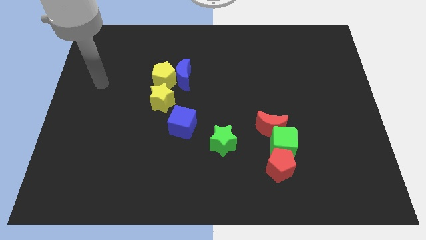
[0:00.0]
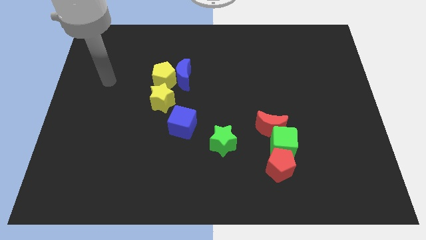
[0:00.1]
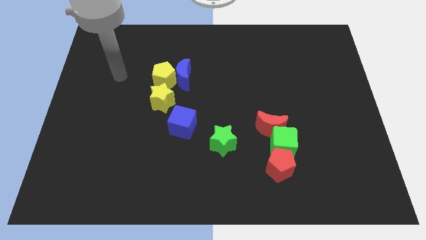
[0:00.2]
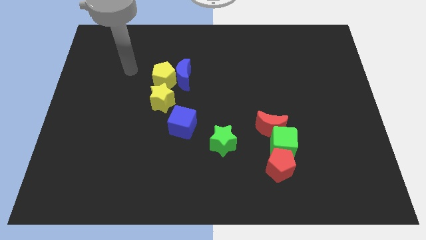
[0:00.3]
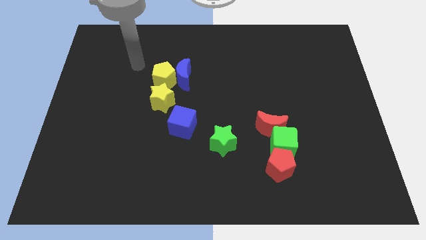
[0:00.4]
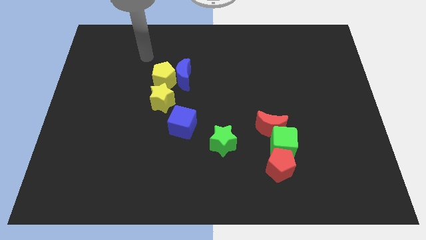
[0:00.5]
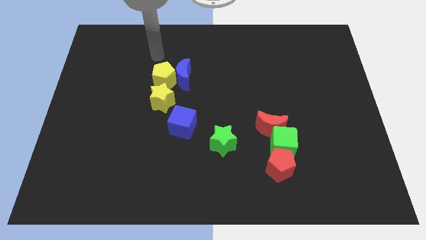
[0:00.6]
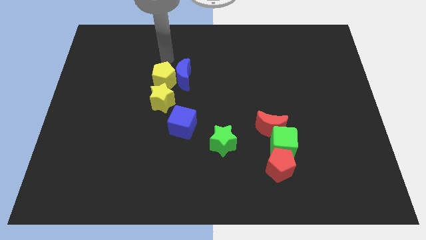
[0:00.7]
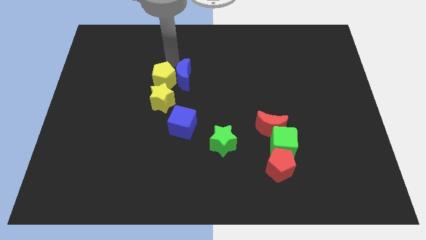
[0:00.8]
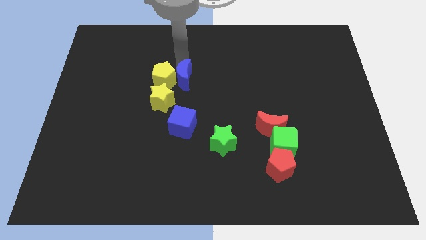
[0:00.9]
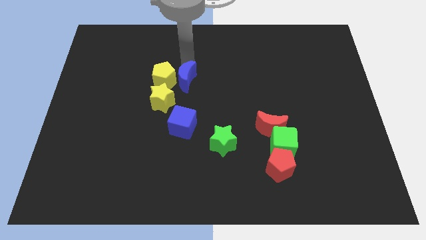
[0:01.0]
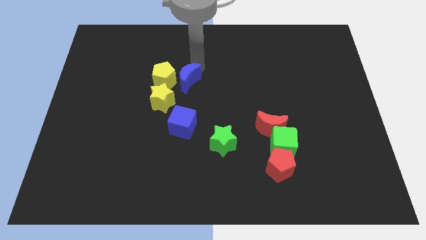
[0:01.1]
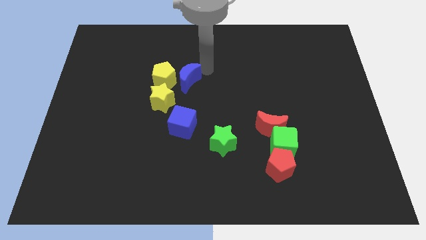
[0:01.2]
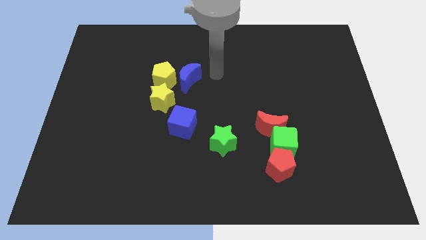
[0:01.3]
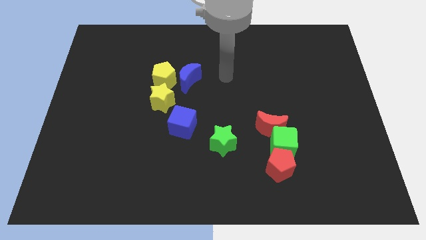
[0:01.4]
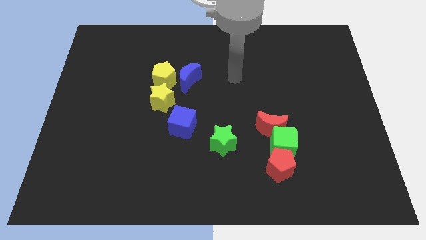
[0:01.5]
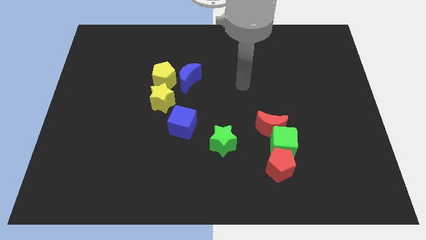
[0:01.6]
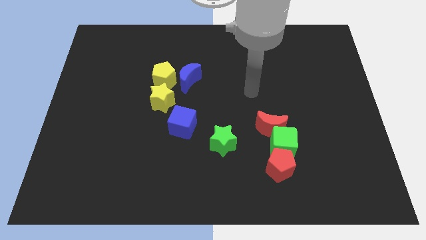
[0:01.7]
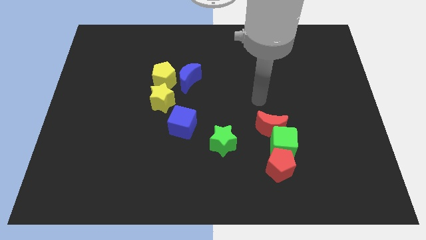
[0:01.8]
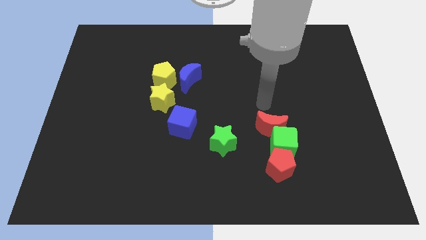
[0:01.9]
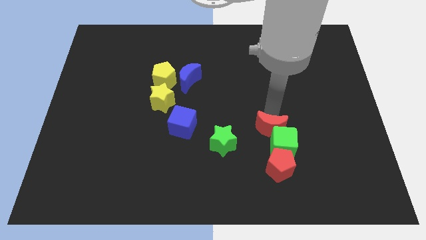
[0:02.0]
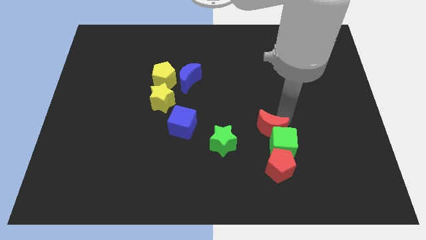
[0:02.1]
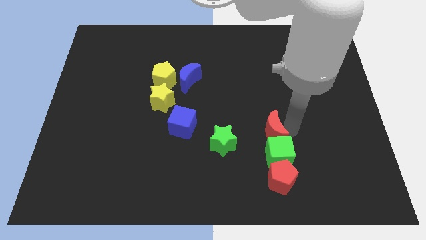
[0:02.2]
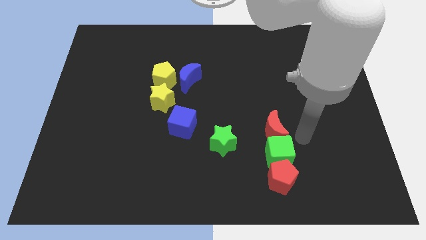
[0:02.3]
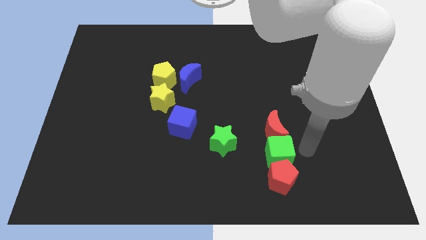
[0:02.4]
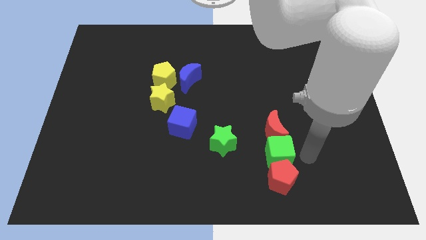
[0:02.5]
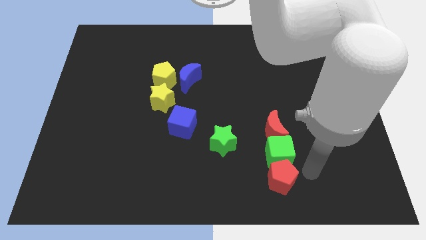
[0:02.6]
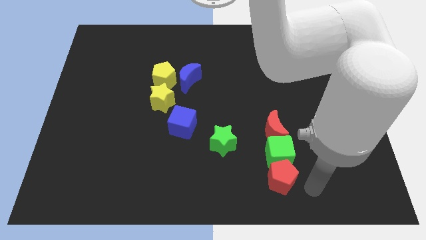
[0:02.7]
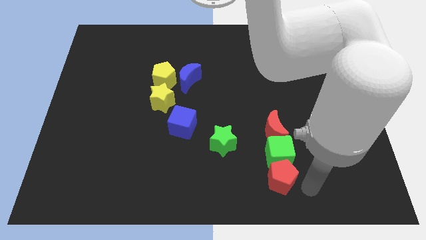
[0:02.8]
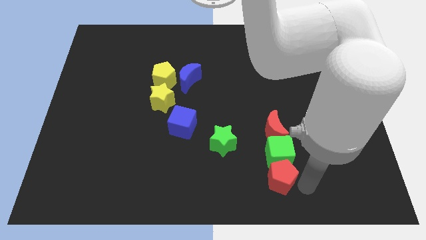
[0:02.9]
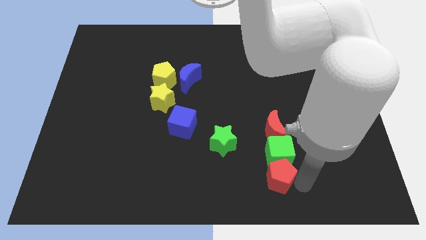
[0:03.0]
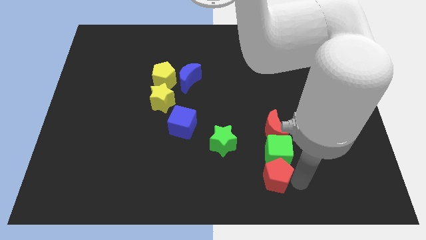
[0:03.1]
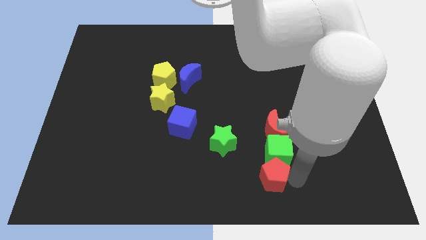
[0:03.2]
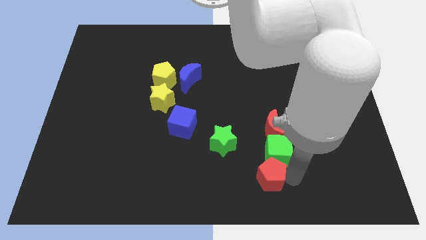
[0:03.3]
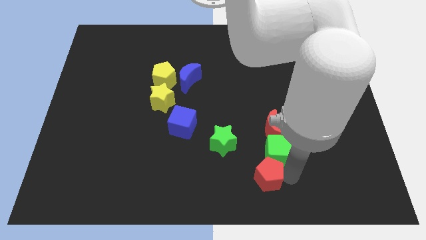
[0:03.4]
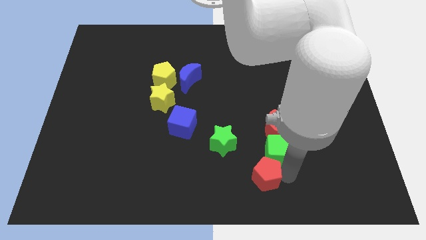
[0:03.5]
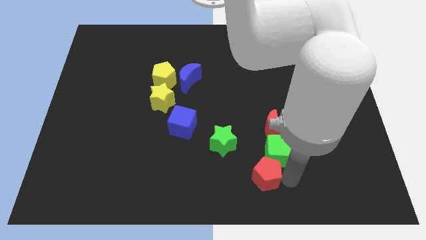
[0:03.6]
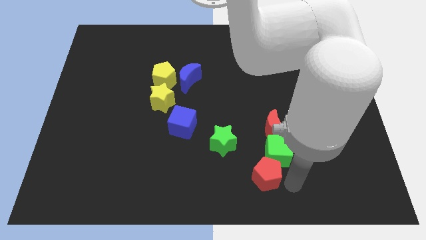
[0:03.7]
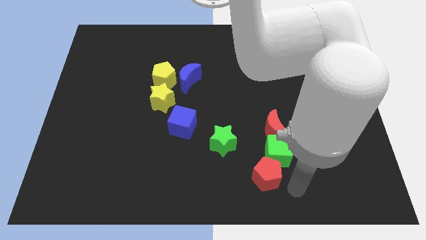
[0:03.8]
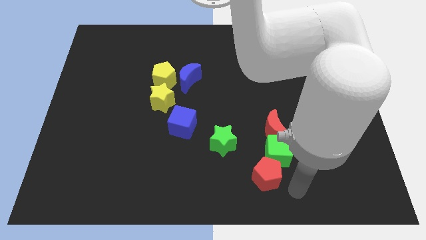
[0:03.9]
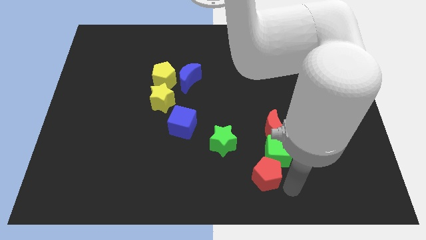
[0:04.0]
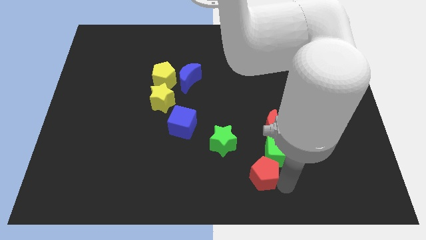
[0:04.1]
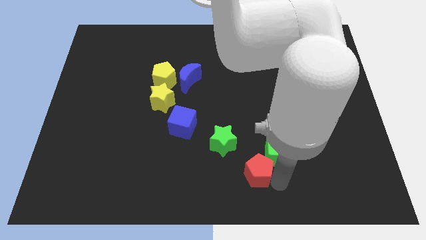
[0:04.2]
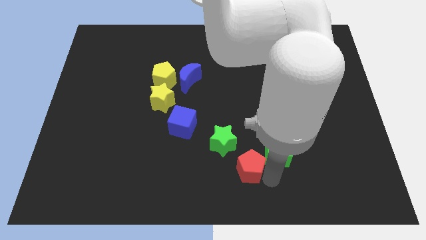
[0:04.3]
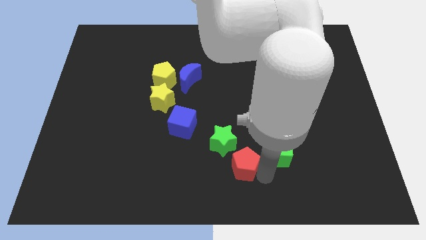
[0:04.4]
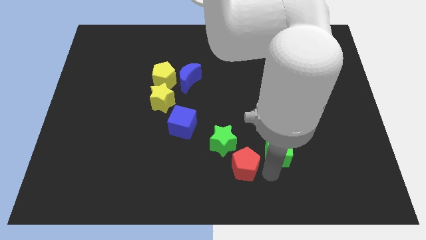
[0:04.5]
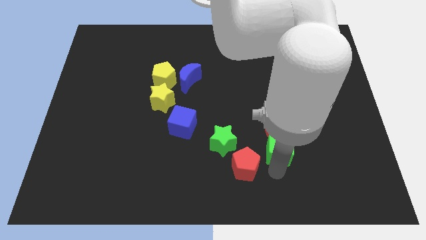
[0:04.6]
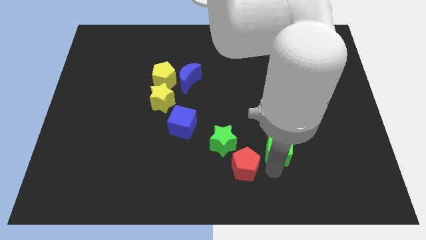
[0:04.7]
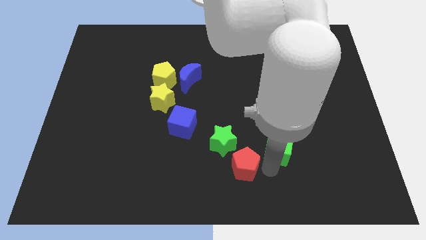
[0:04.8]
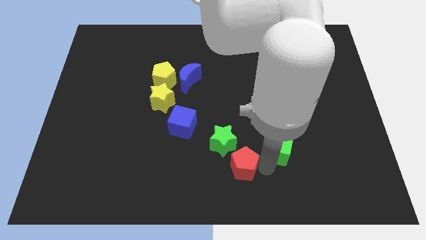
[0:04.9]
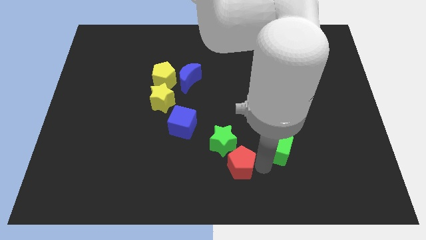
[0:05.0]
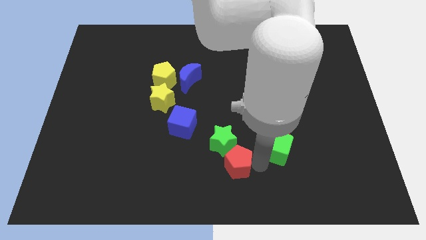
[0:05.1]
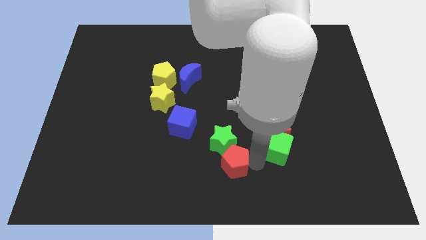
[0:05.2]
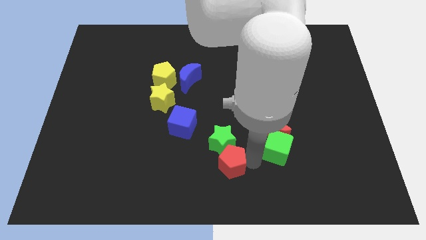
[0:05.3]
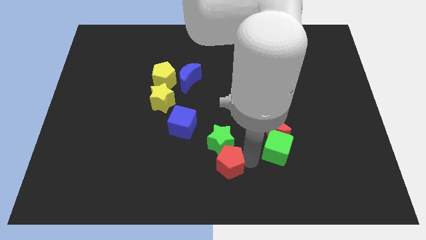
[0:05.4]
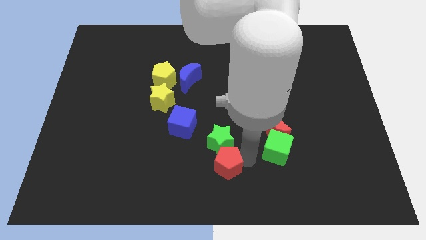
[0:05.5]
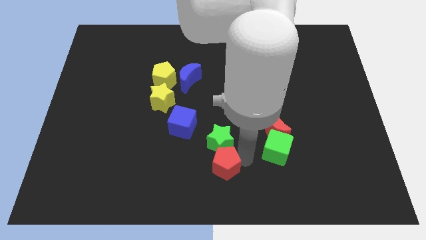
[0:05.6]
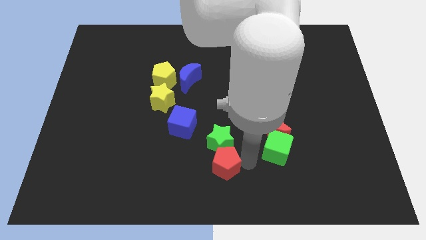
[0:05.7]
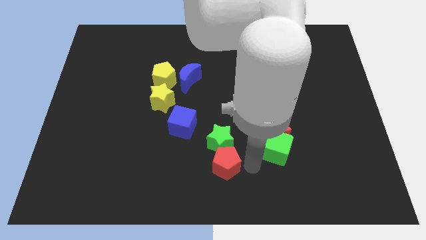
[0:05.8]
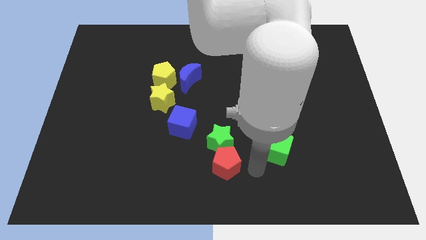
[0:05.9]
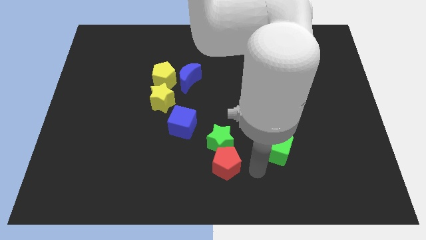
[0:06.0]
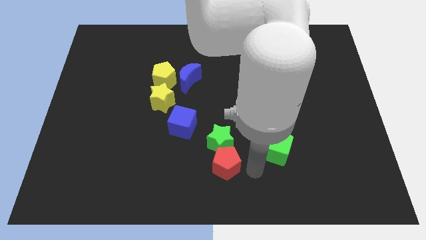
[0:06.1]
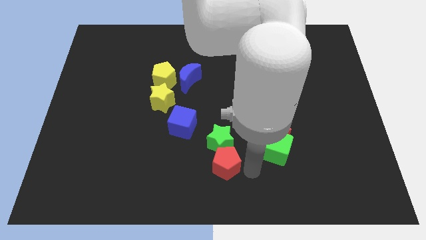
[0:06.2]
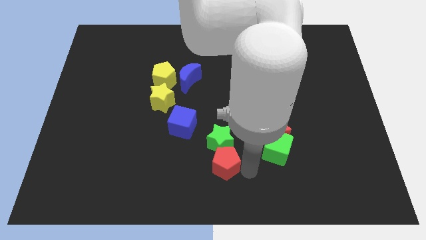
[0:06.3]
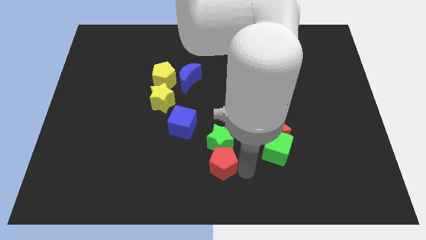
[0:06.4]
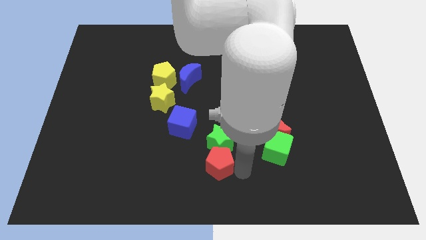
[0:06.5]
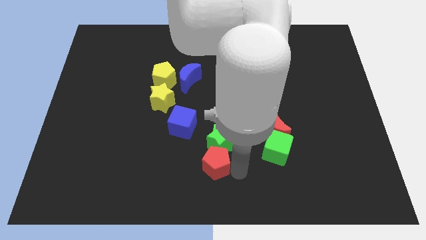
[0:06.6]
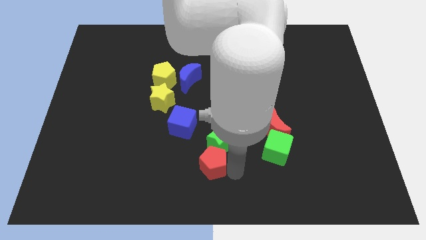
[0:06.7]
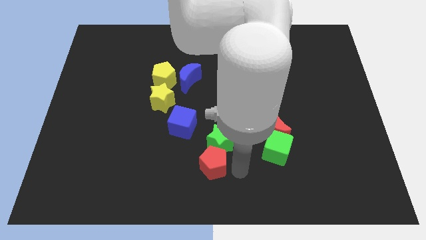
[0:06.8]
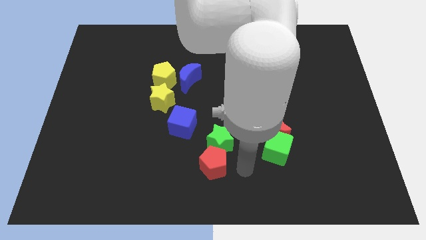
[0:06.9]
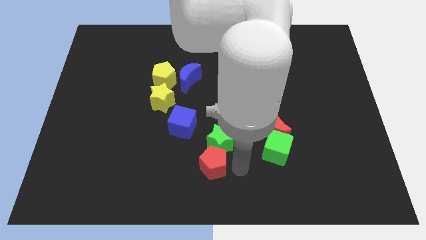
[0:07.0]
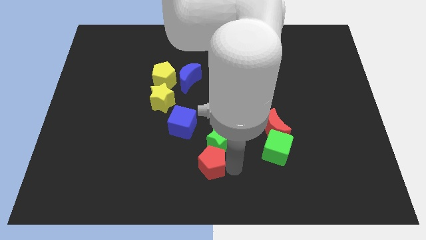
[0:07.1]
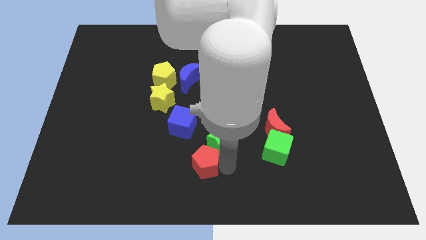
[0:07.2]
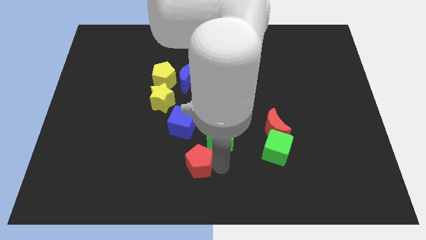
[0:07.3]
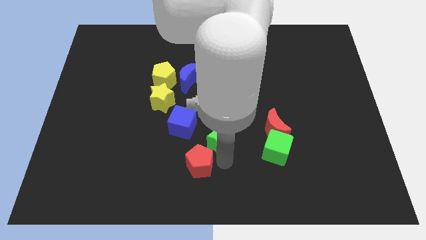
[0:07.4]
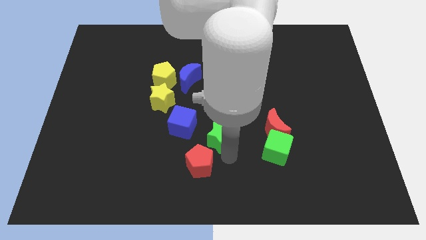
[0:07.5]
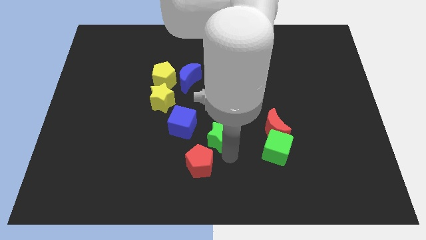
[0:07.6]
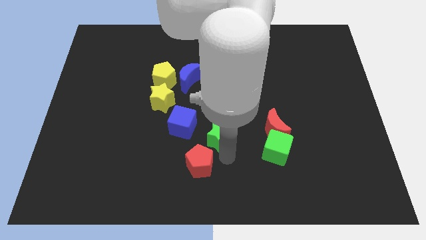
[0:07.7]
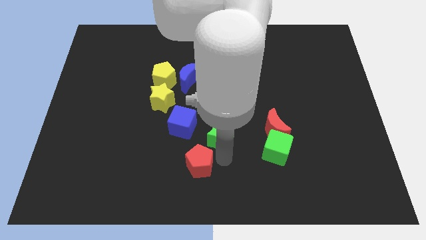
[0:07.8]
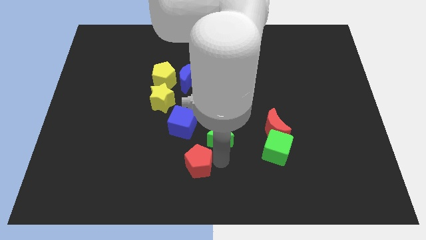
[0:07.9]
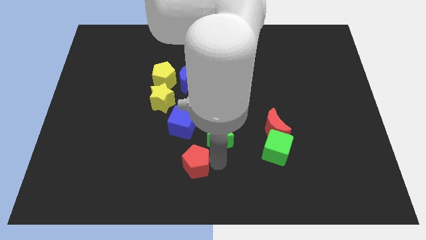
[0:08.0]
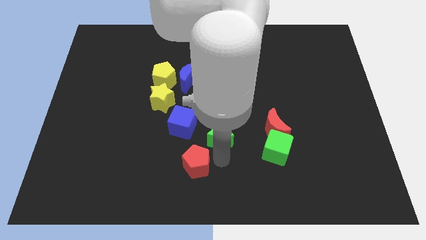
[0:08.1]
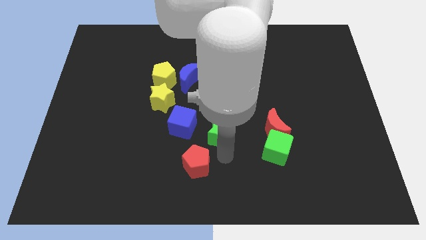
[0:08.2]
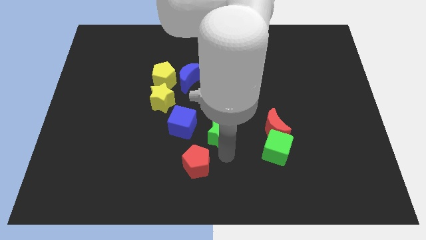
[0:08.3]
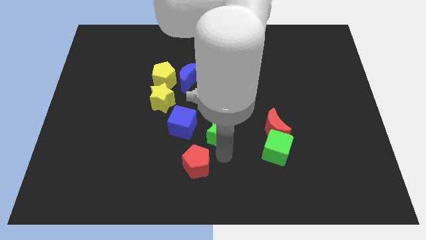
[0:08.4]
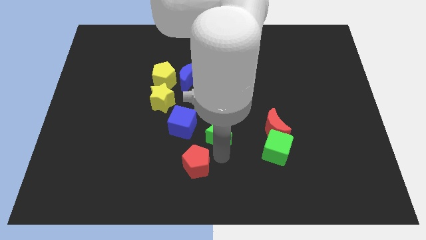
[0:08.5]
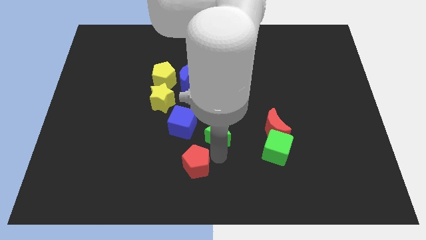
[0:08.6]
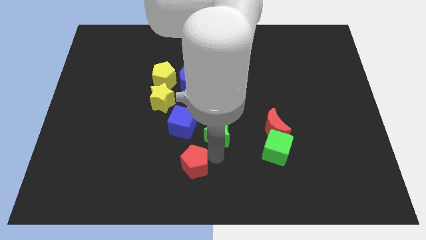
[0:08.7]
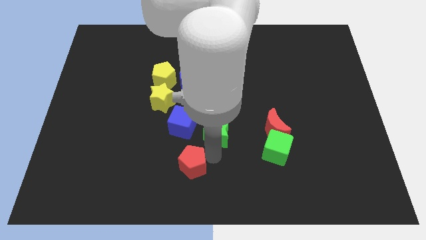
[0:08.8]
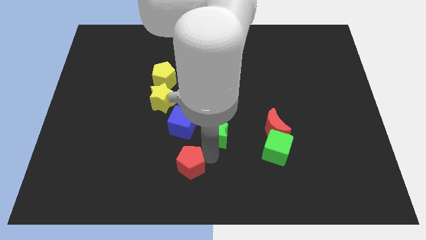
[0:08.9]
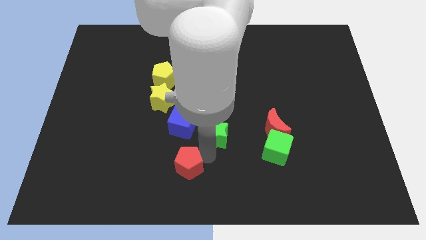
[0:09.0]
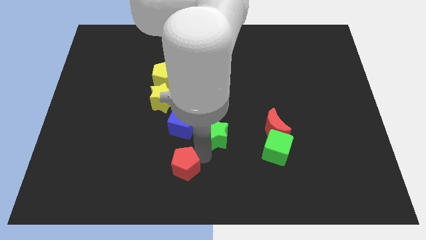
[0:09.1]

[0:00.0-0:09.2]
slide the red pentagon left
